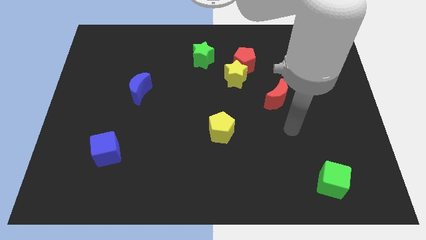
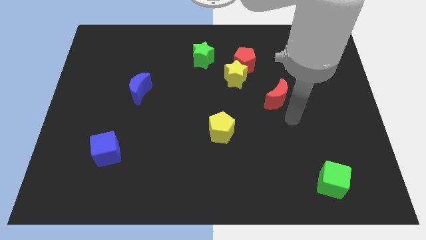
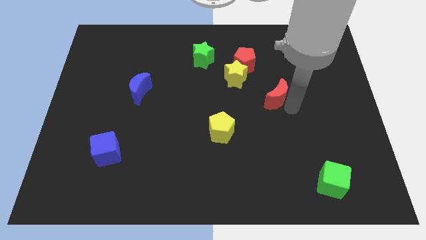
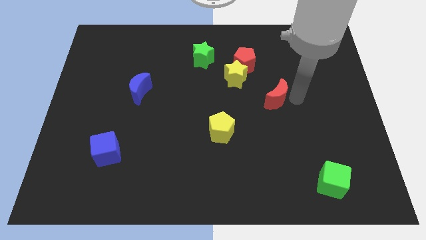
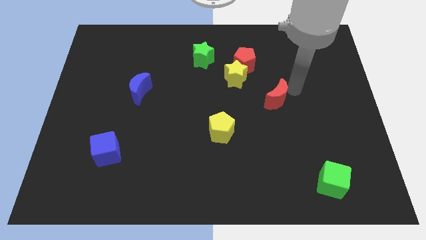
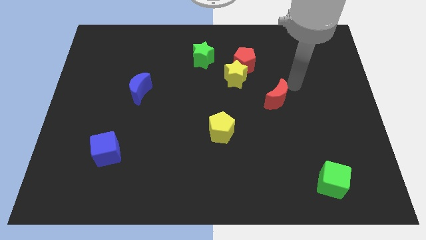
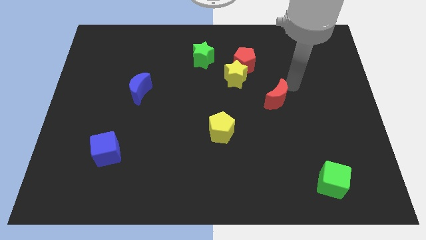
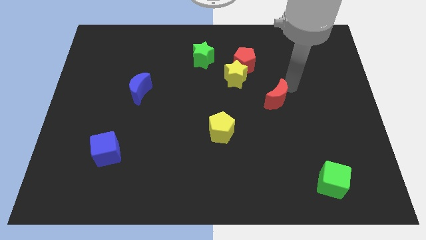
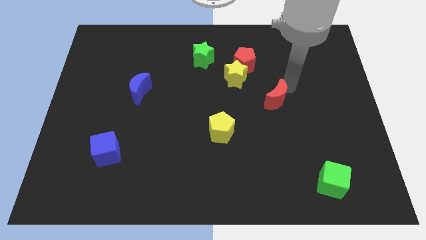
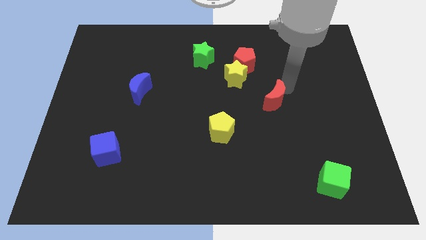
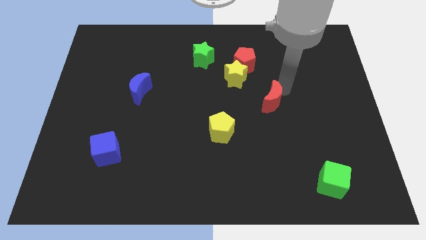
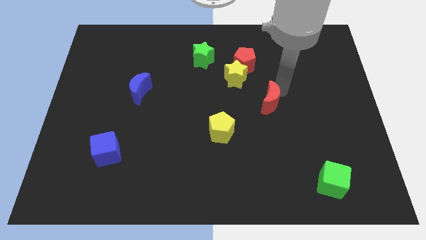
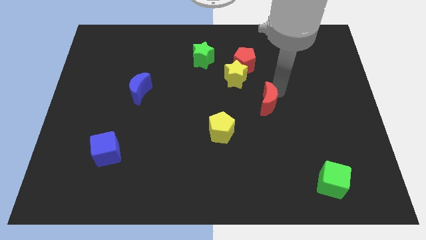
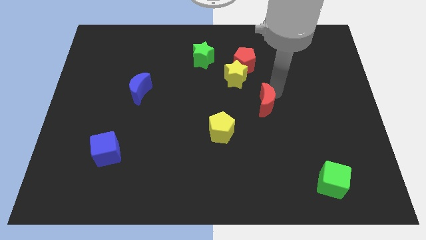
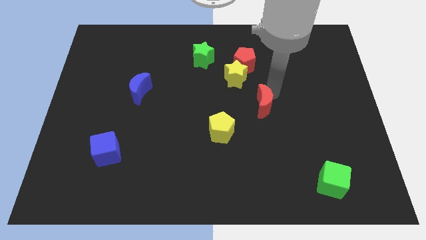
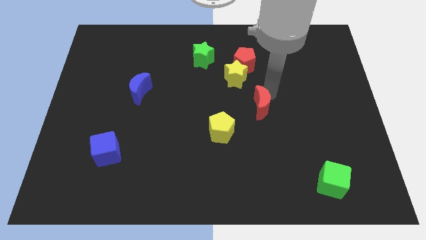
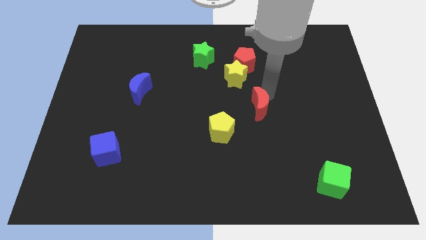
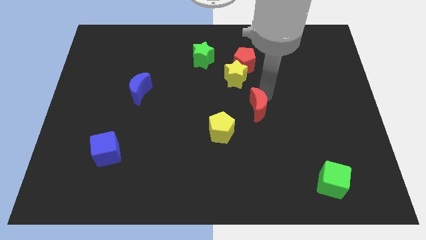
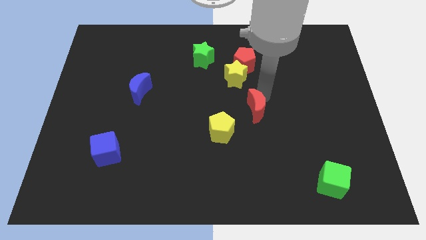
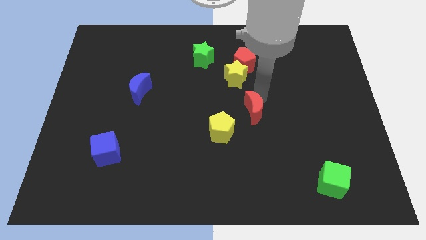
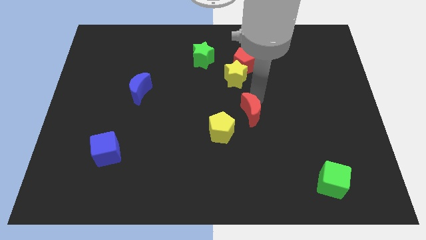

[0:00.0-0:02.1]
push the red moon downwards and then left a little

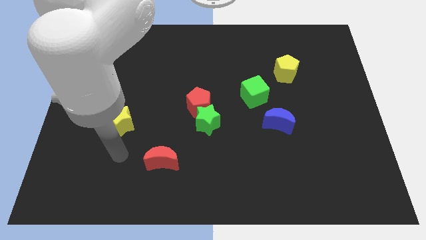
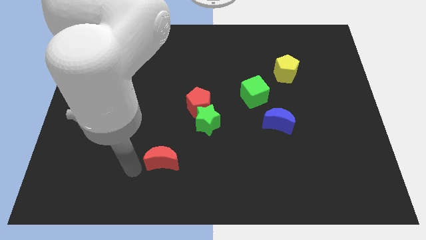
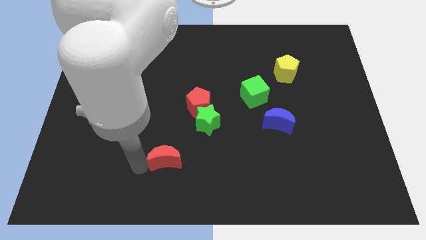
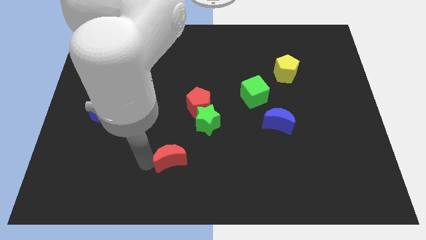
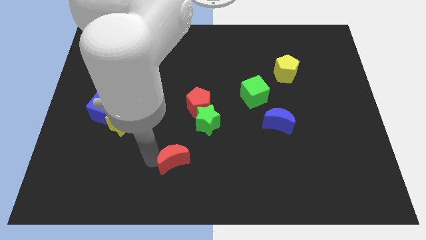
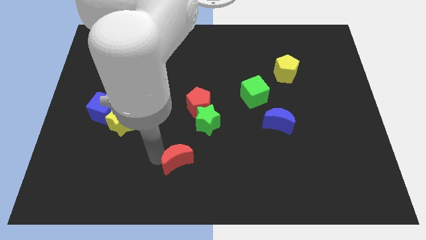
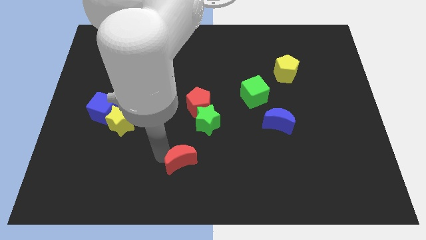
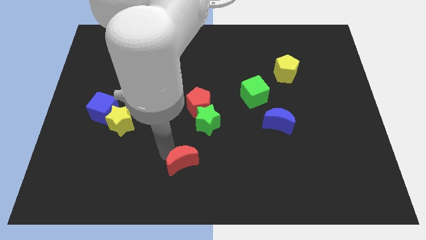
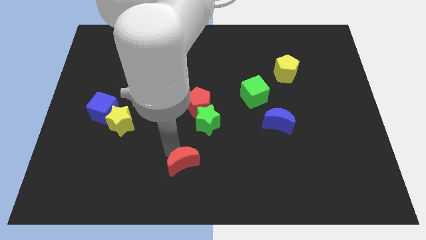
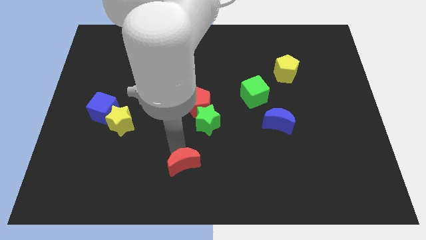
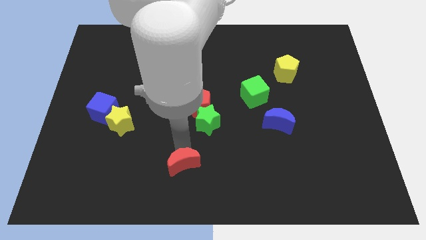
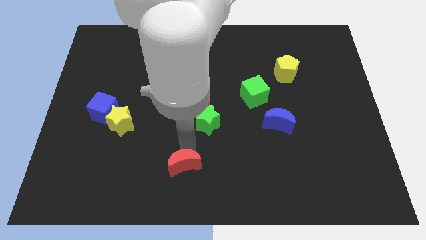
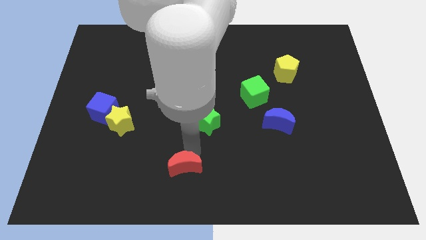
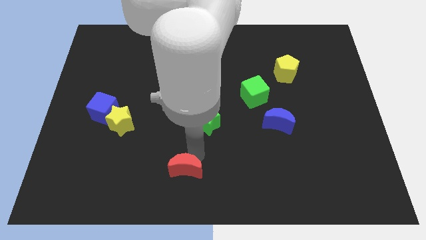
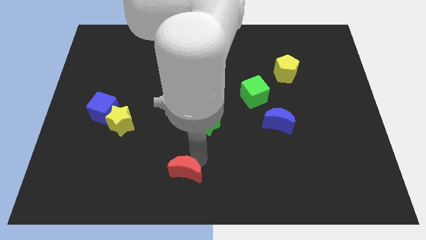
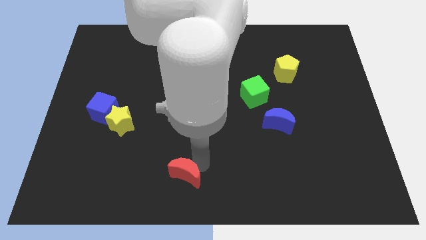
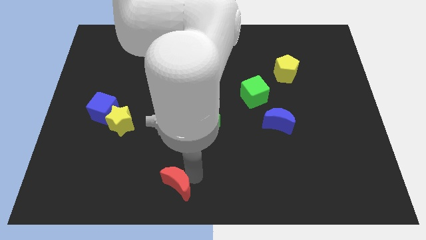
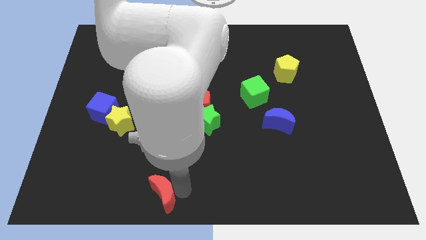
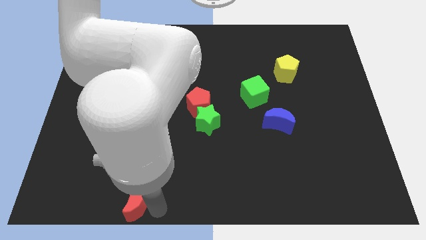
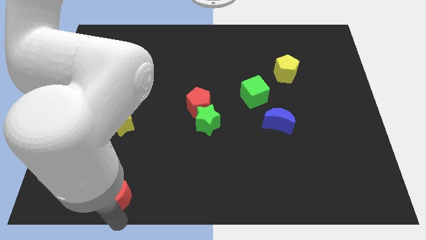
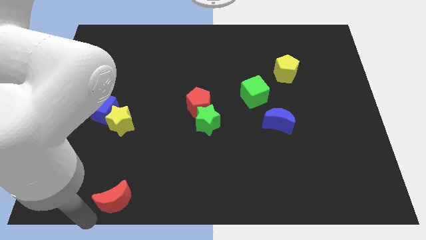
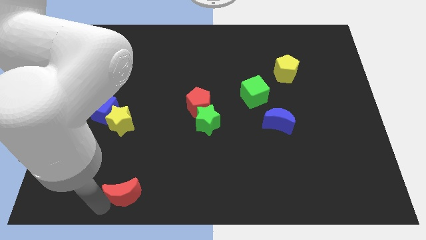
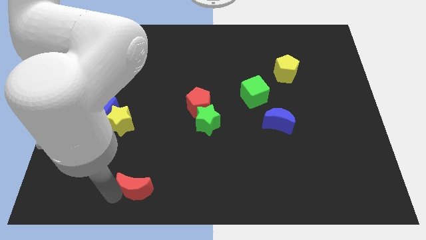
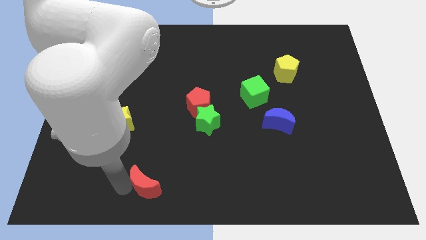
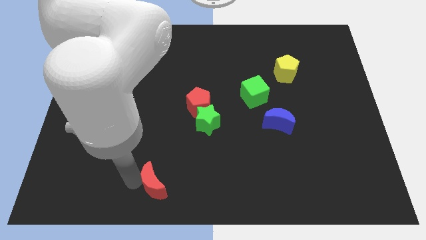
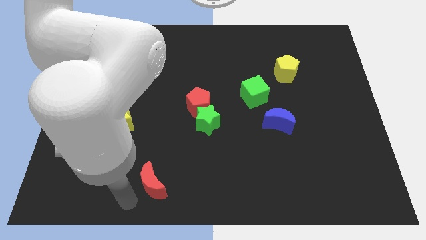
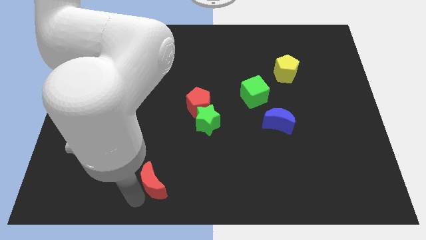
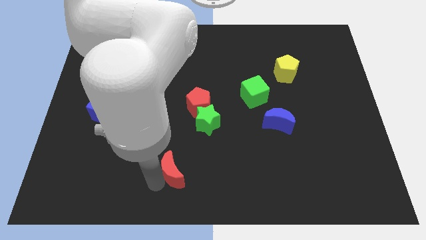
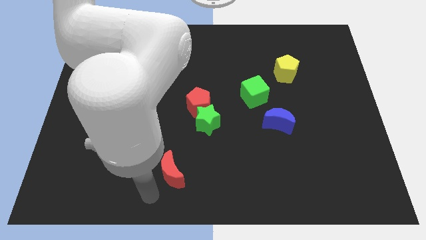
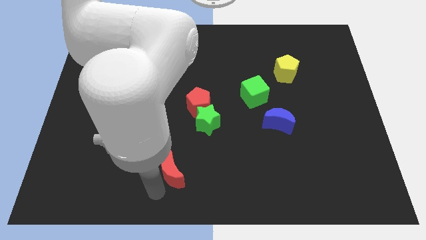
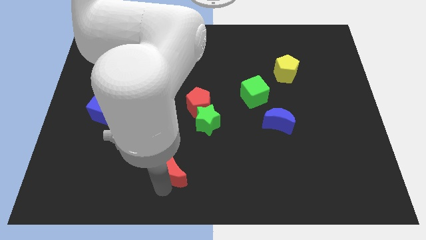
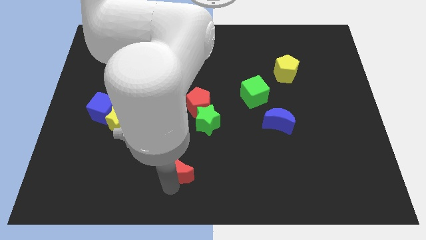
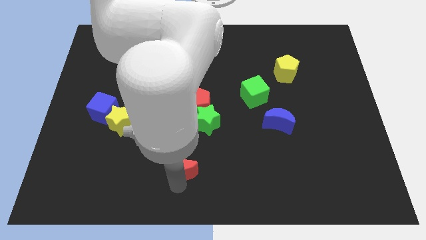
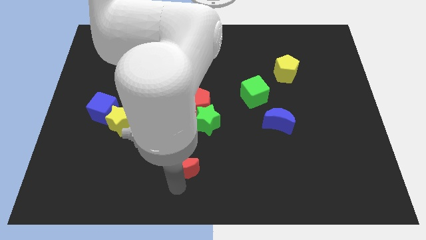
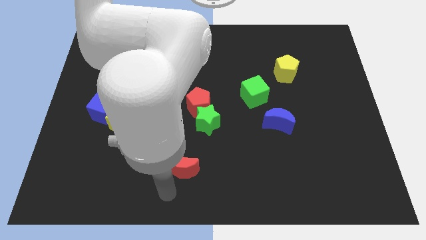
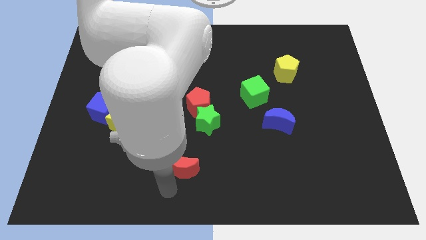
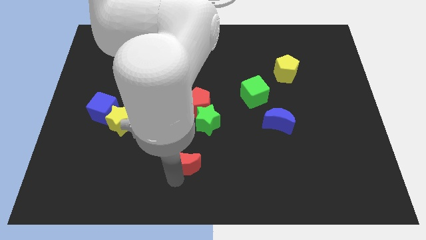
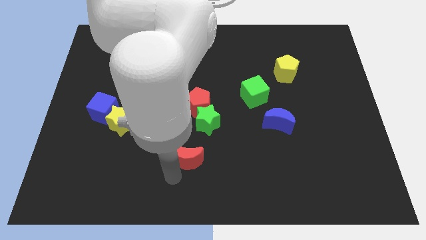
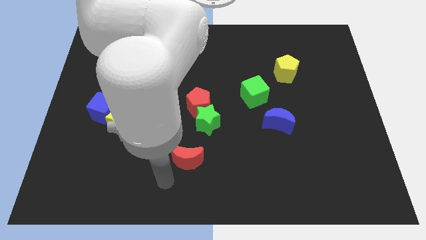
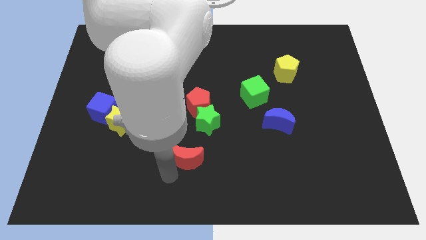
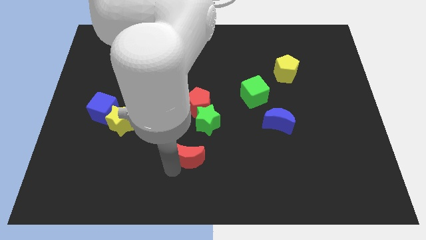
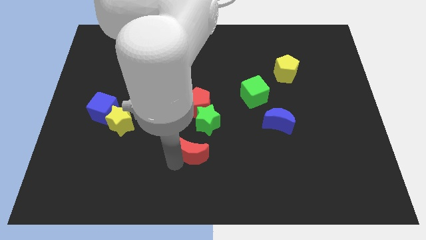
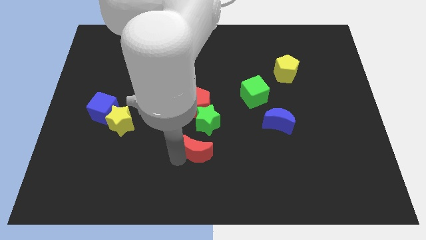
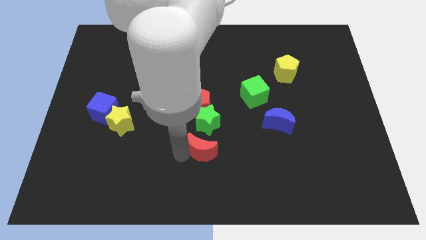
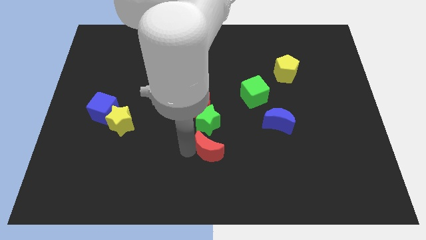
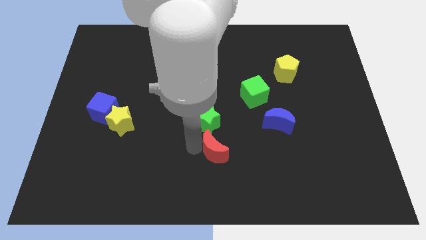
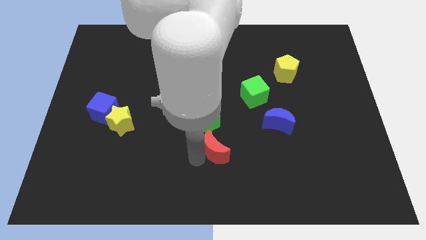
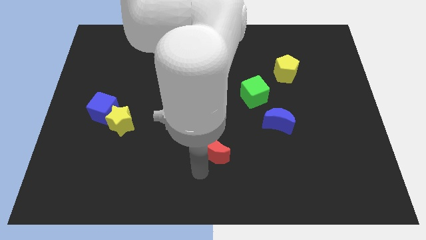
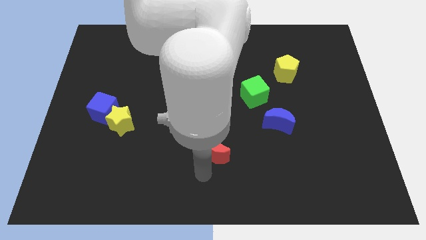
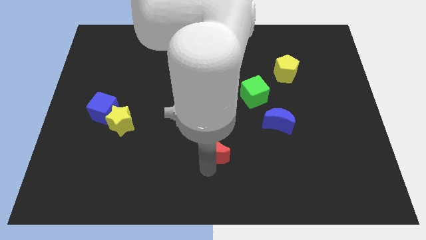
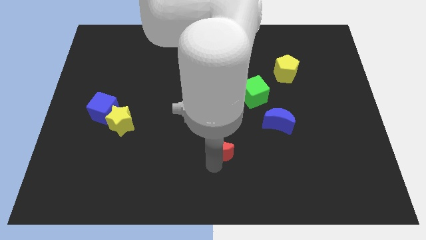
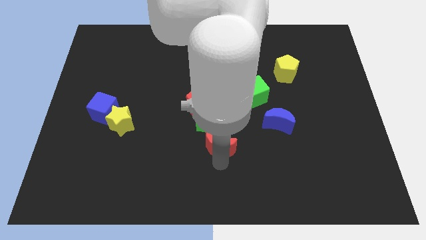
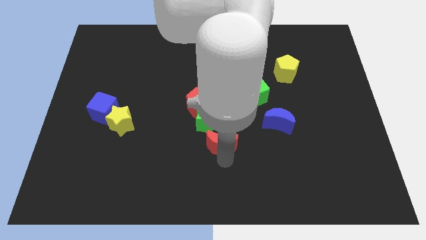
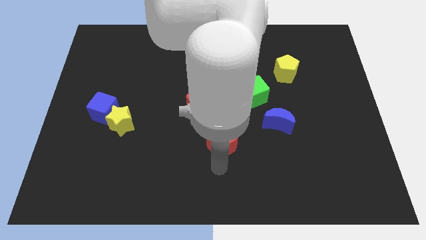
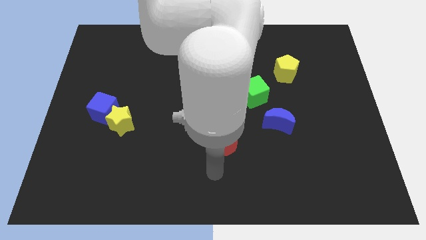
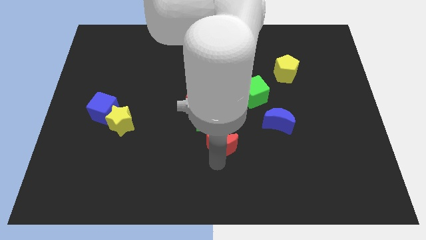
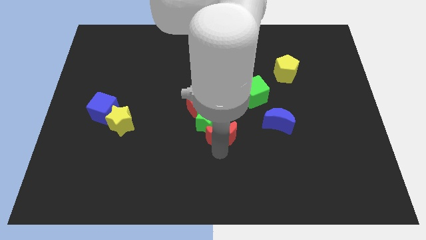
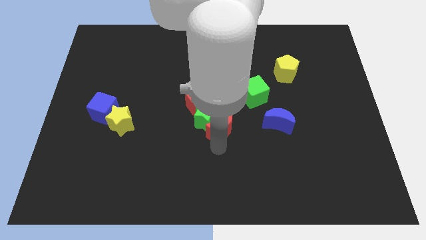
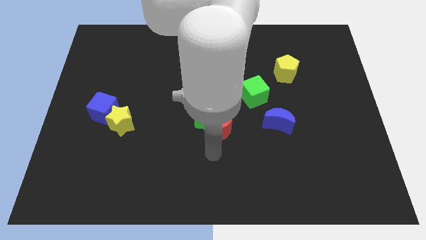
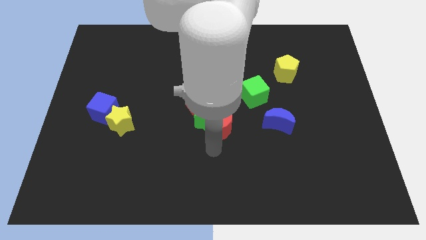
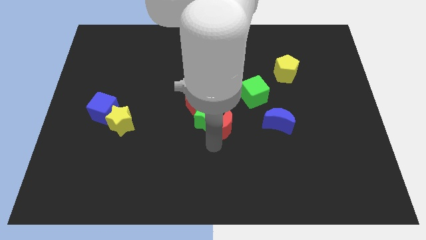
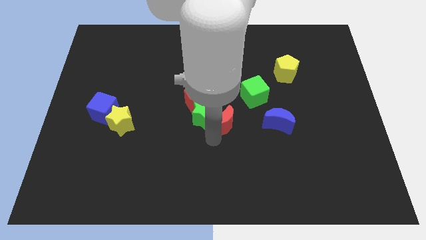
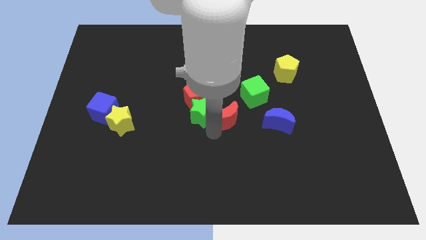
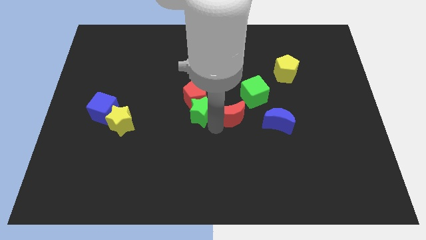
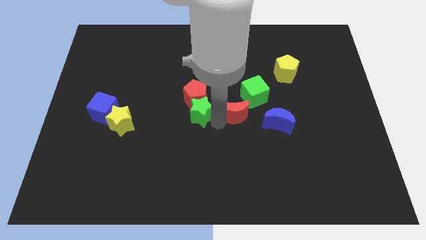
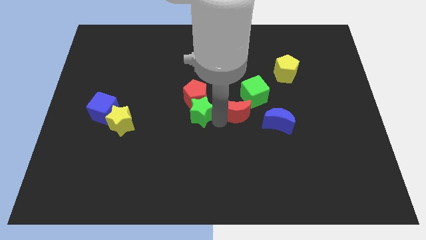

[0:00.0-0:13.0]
push the red moon up and then to the right
